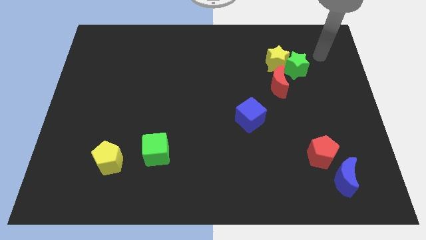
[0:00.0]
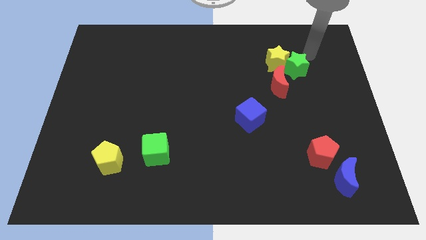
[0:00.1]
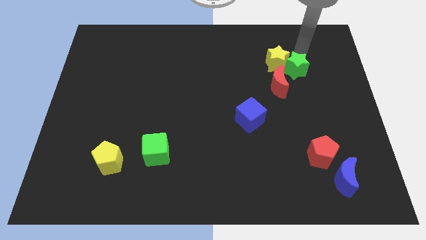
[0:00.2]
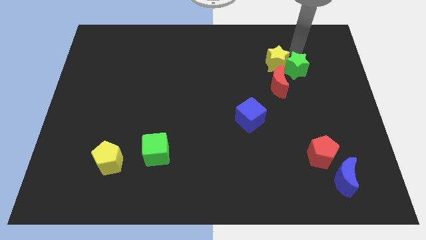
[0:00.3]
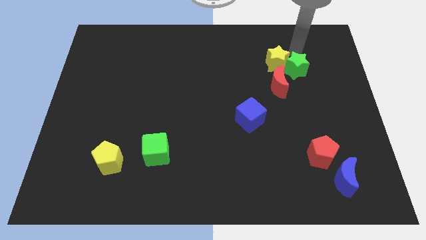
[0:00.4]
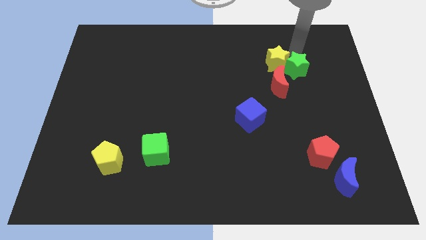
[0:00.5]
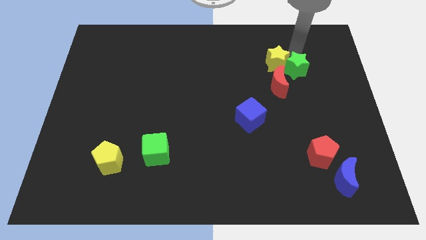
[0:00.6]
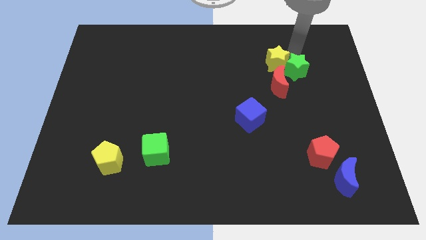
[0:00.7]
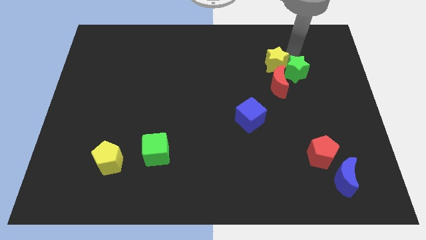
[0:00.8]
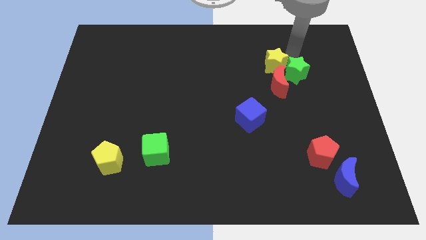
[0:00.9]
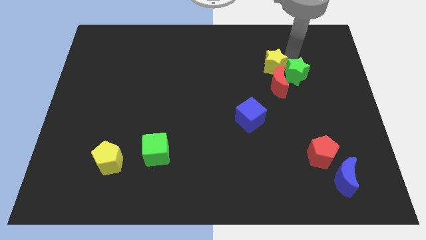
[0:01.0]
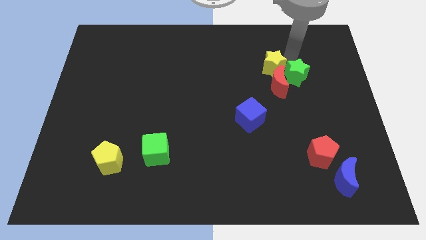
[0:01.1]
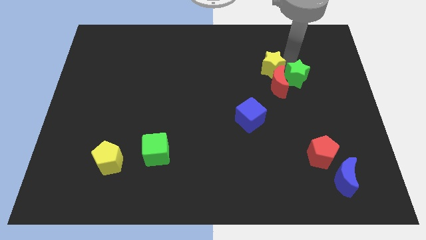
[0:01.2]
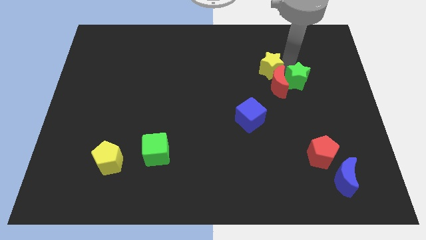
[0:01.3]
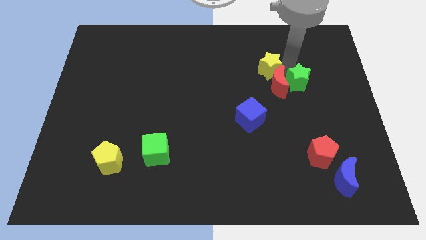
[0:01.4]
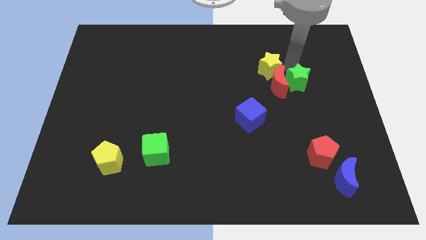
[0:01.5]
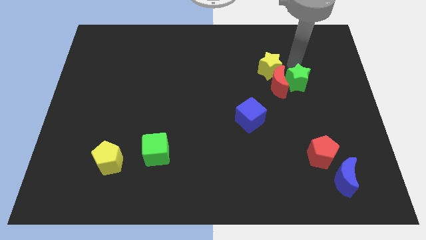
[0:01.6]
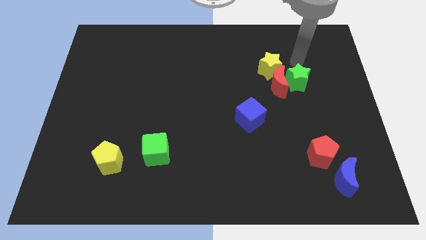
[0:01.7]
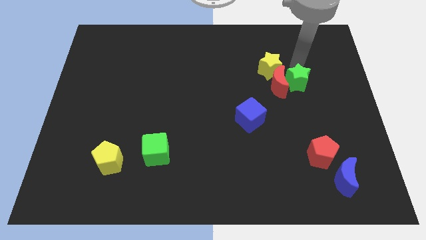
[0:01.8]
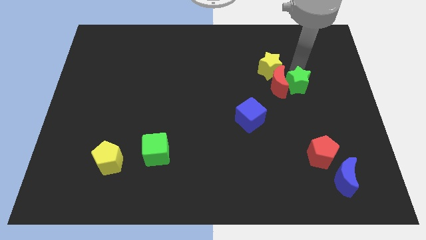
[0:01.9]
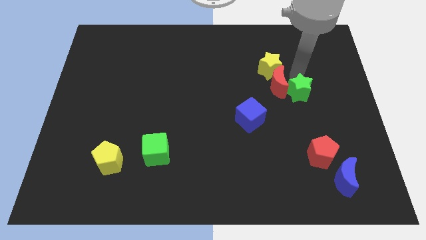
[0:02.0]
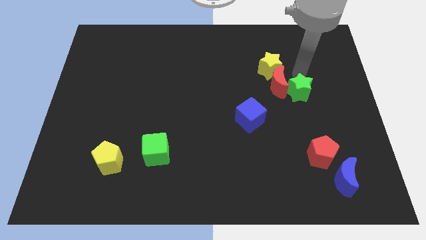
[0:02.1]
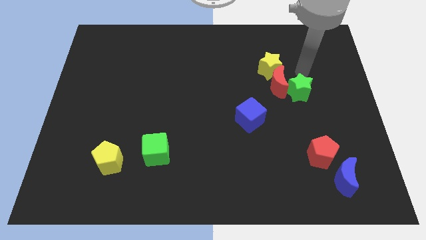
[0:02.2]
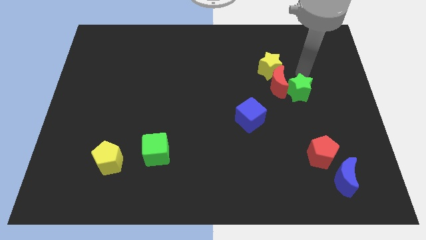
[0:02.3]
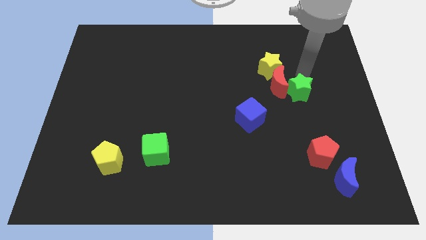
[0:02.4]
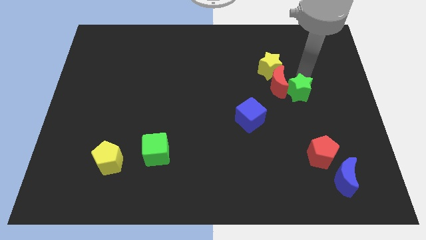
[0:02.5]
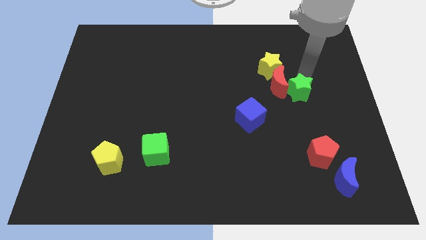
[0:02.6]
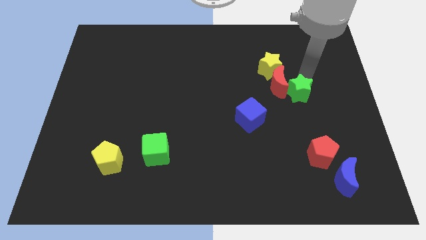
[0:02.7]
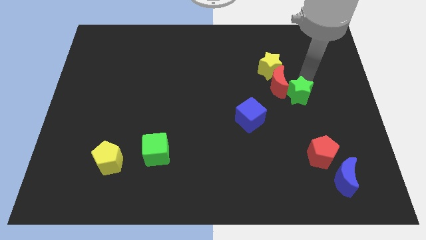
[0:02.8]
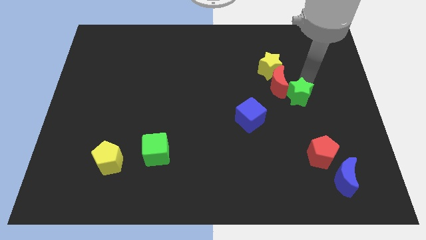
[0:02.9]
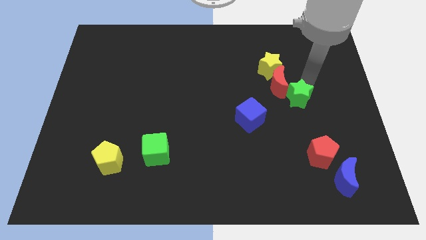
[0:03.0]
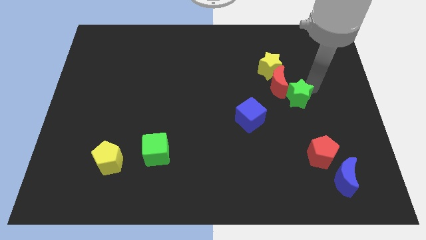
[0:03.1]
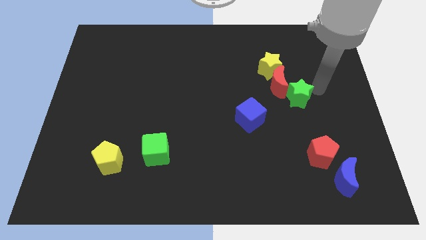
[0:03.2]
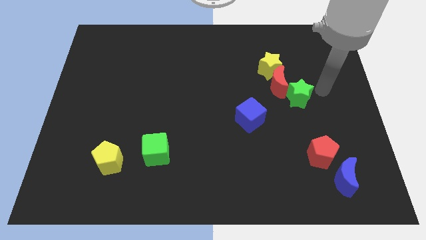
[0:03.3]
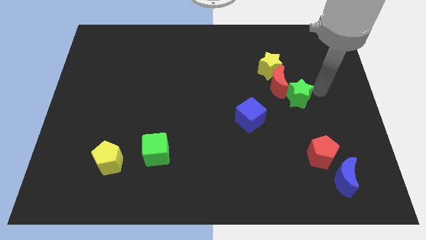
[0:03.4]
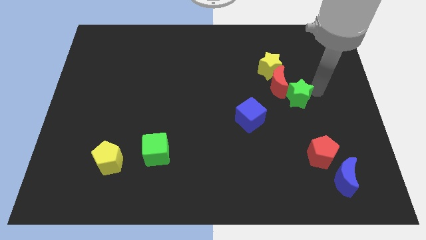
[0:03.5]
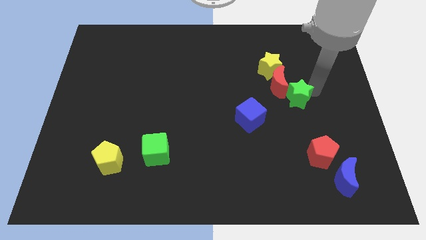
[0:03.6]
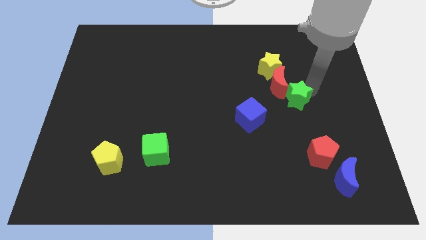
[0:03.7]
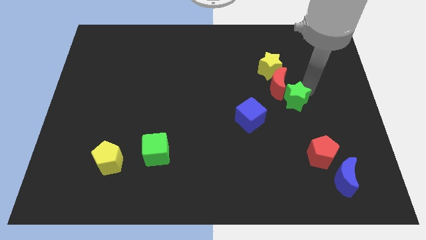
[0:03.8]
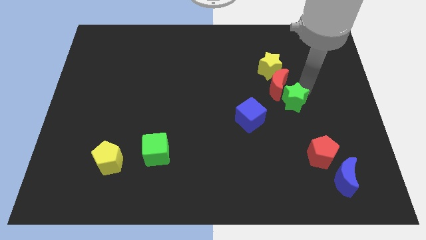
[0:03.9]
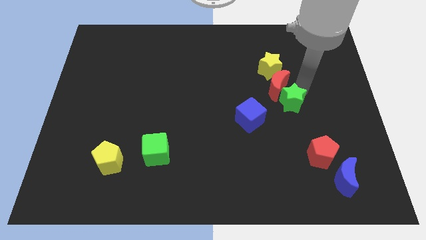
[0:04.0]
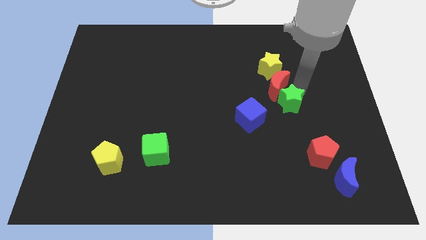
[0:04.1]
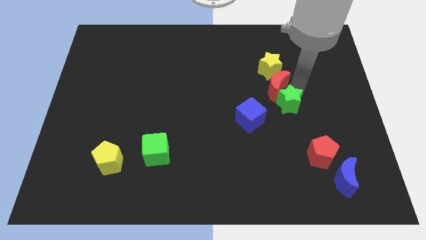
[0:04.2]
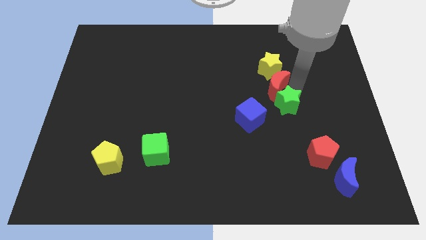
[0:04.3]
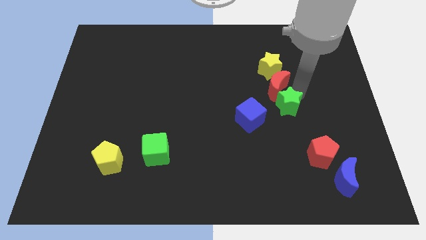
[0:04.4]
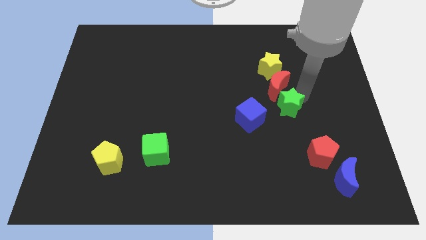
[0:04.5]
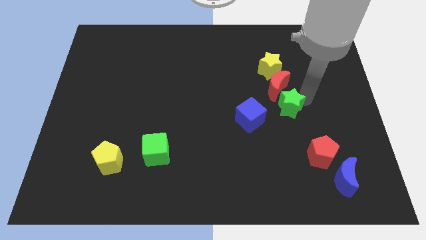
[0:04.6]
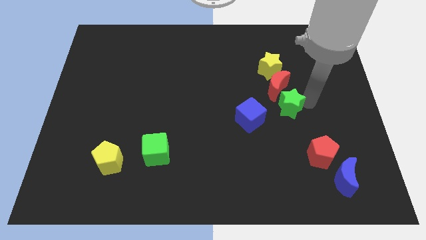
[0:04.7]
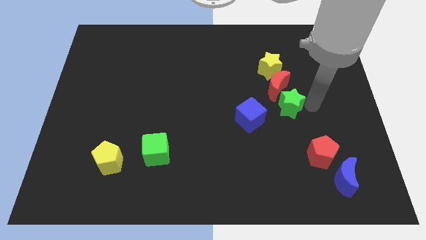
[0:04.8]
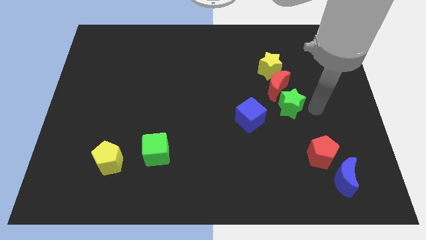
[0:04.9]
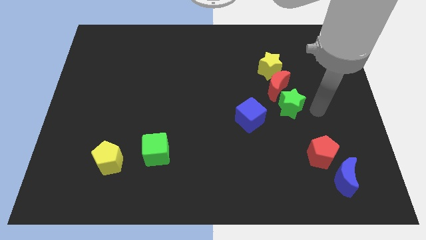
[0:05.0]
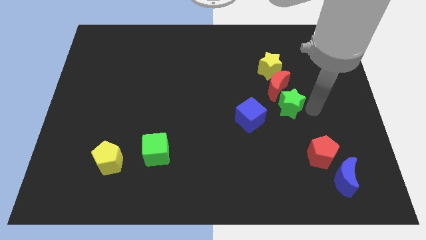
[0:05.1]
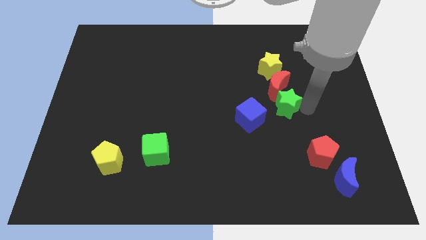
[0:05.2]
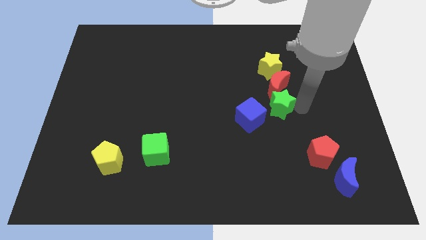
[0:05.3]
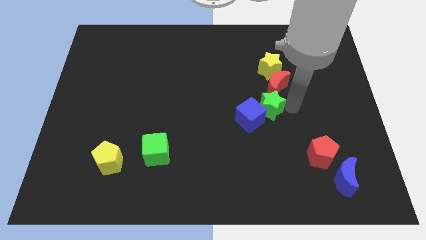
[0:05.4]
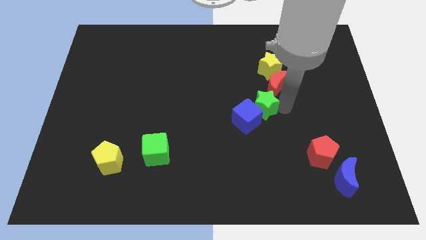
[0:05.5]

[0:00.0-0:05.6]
move the green star to the center of the board
